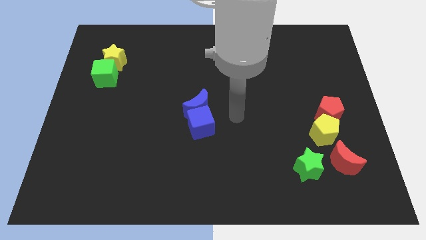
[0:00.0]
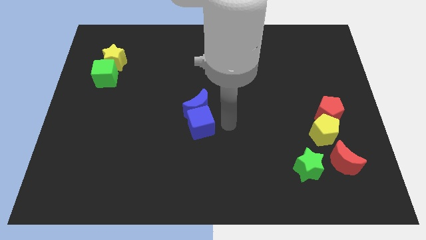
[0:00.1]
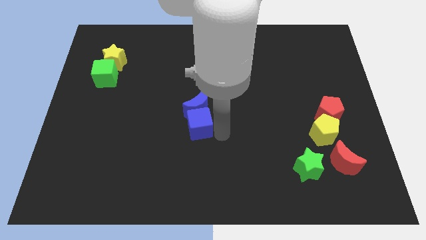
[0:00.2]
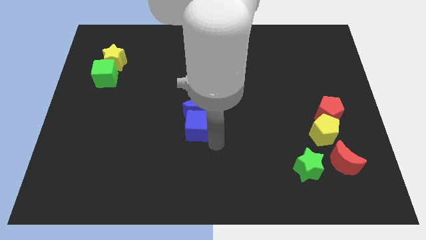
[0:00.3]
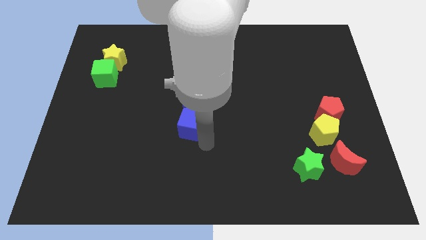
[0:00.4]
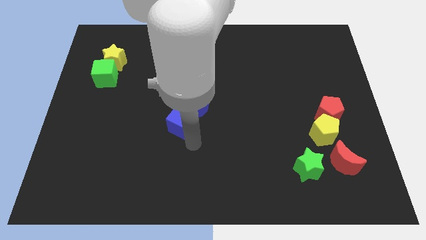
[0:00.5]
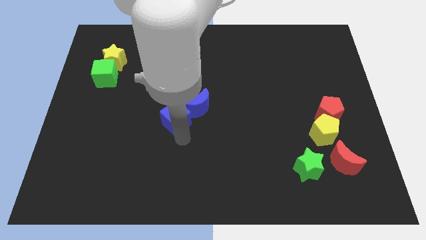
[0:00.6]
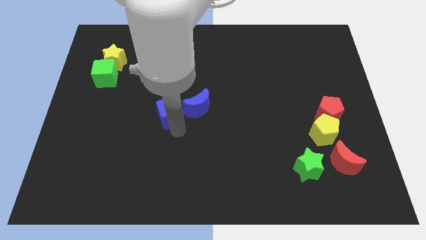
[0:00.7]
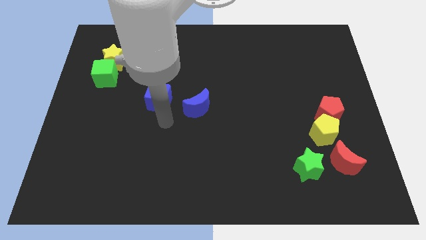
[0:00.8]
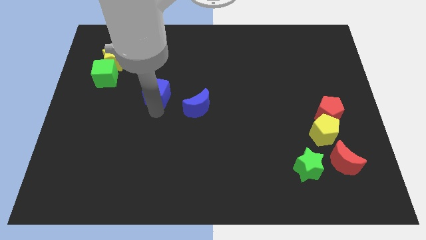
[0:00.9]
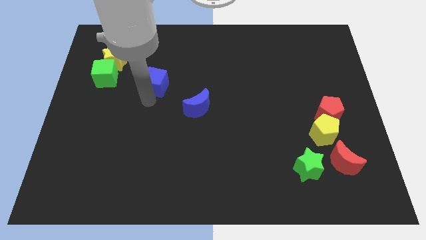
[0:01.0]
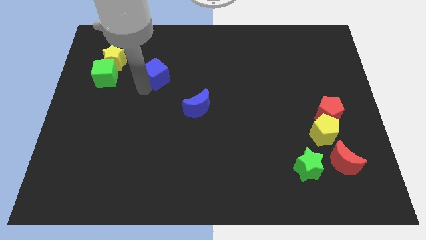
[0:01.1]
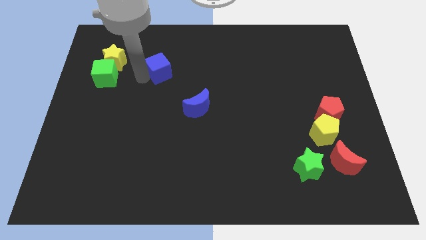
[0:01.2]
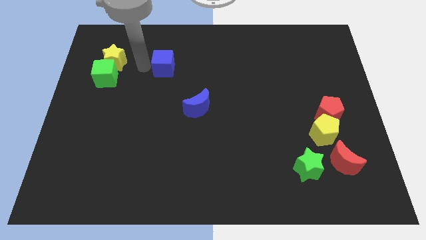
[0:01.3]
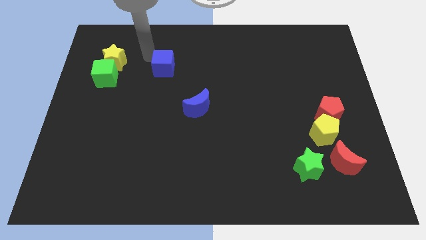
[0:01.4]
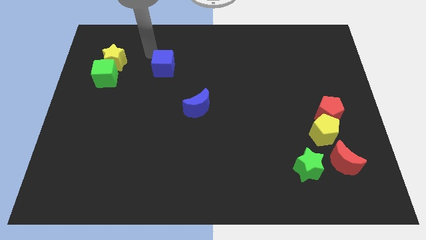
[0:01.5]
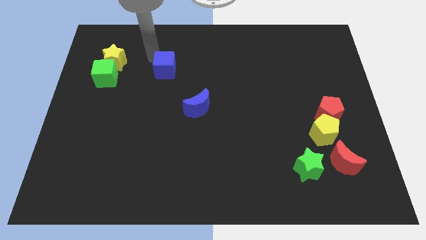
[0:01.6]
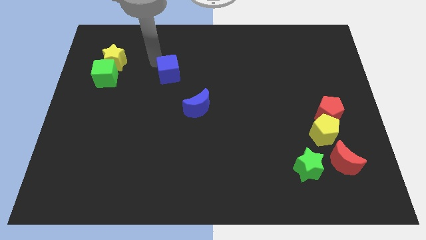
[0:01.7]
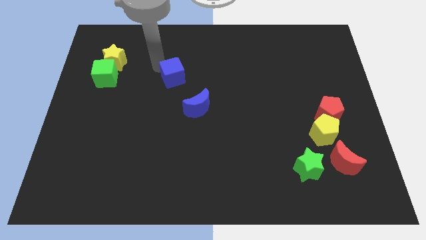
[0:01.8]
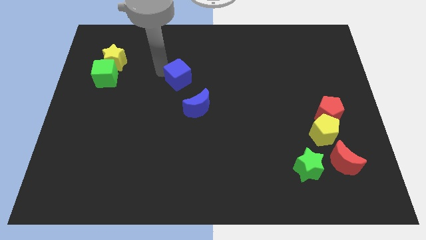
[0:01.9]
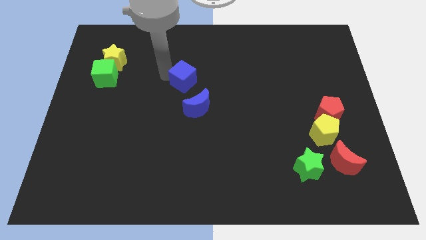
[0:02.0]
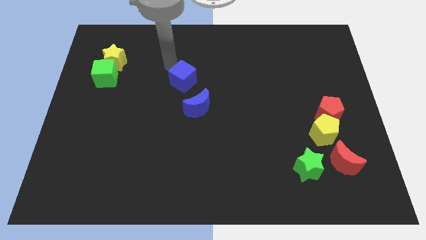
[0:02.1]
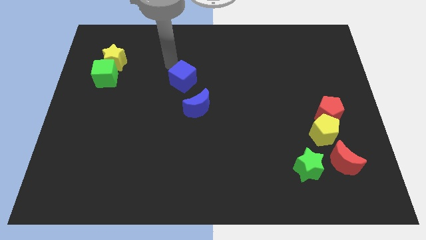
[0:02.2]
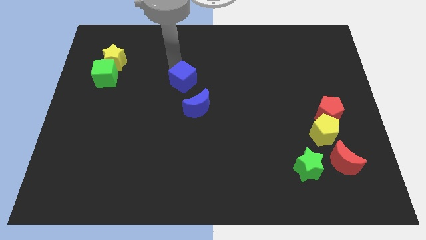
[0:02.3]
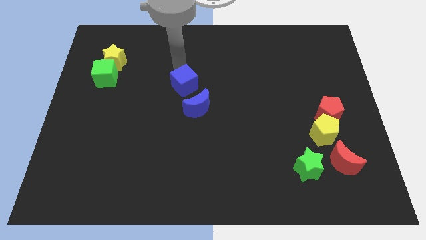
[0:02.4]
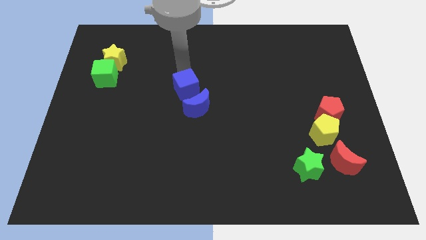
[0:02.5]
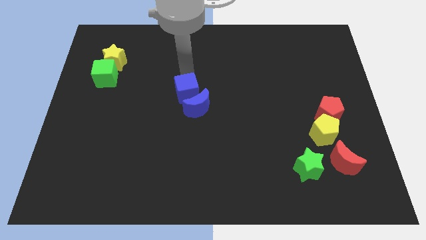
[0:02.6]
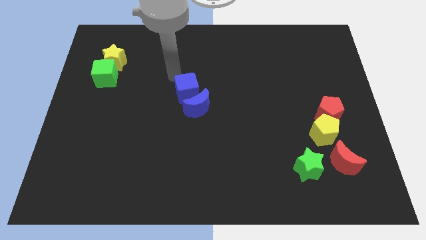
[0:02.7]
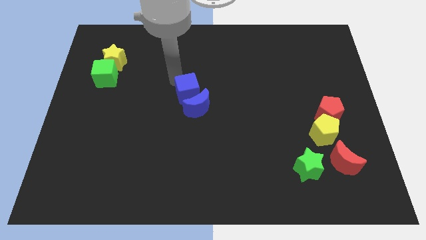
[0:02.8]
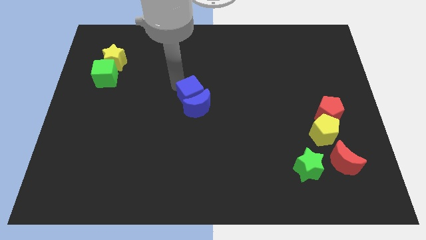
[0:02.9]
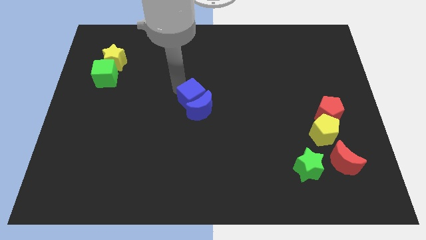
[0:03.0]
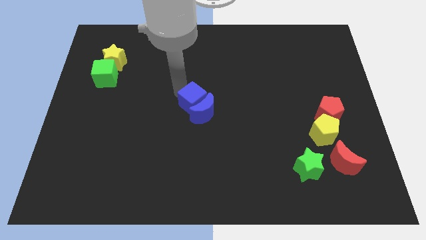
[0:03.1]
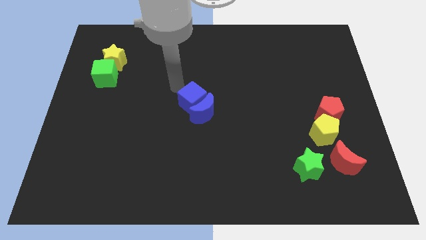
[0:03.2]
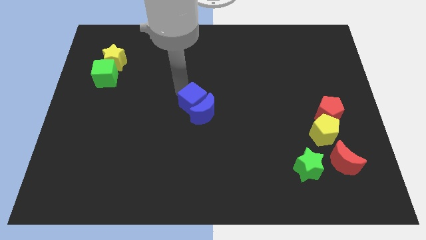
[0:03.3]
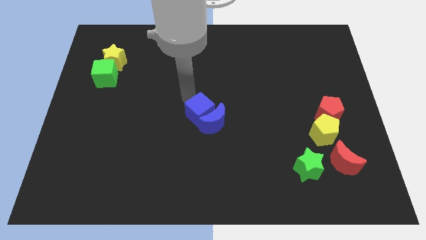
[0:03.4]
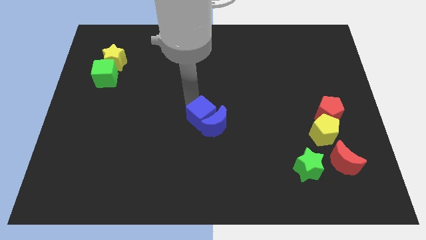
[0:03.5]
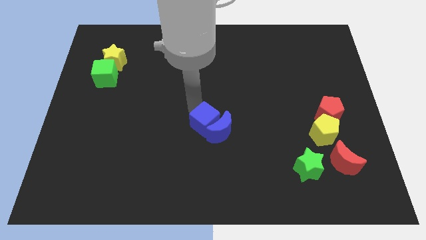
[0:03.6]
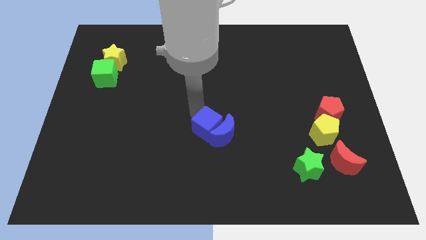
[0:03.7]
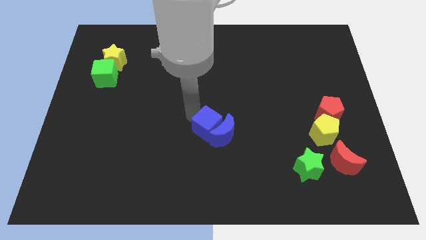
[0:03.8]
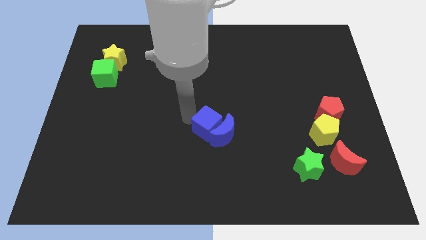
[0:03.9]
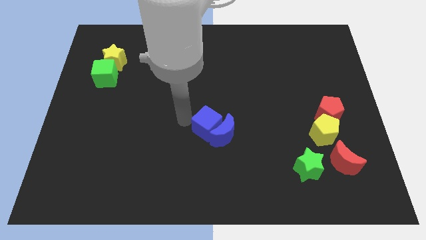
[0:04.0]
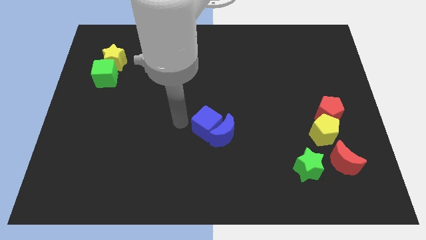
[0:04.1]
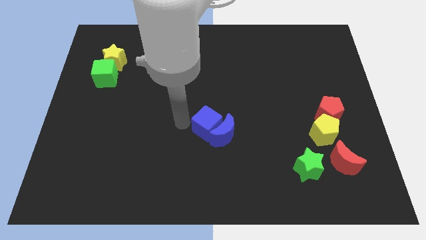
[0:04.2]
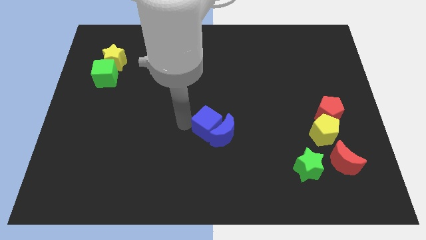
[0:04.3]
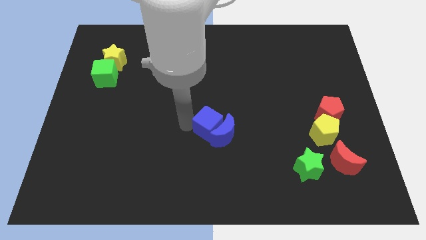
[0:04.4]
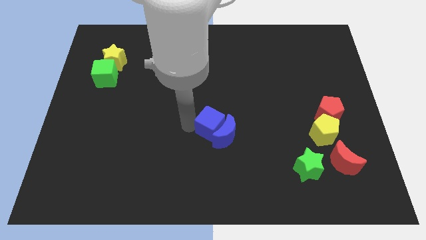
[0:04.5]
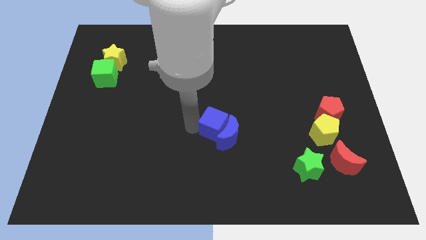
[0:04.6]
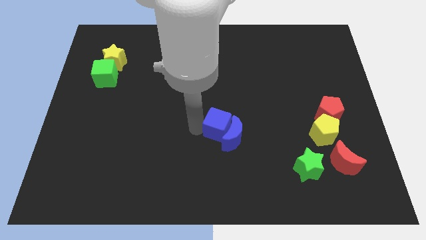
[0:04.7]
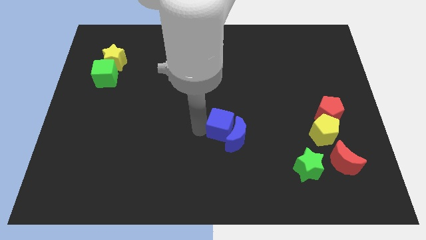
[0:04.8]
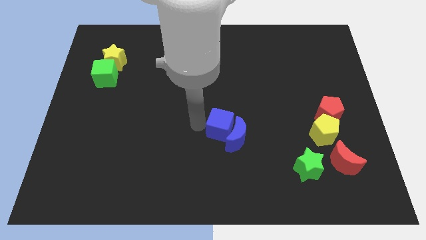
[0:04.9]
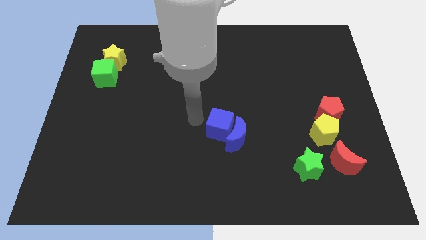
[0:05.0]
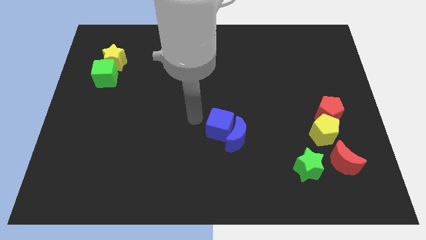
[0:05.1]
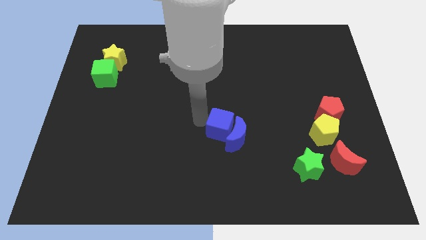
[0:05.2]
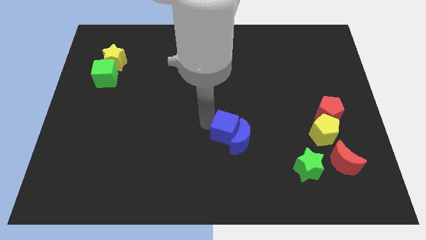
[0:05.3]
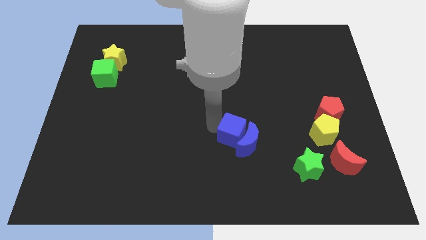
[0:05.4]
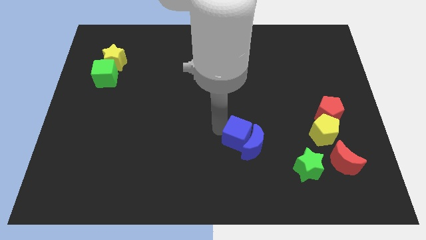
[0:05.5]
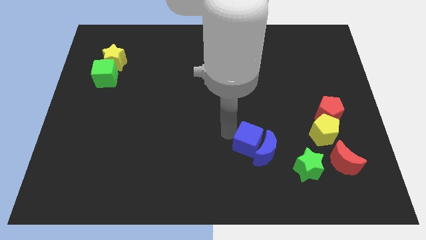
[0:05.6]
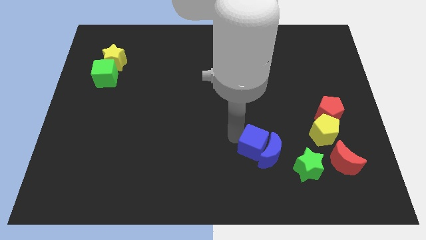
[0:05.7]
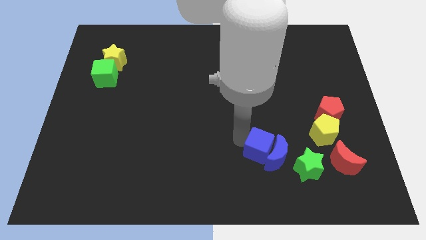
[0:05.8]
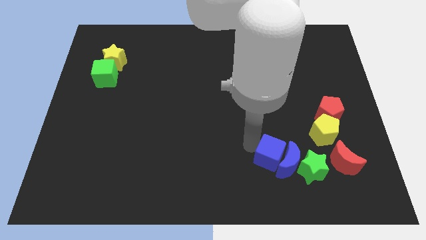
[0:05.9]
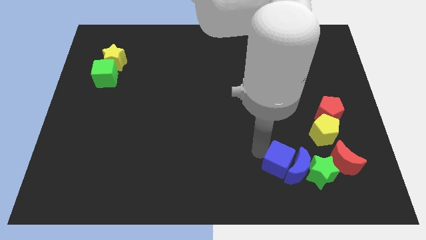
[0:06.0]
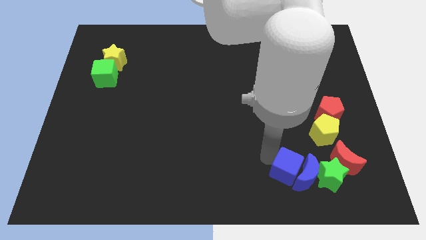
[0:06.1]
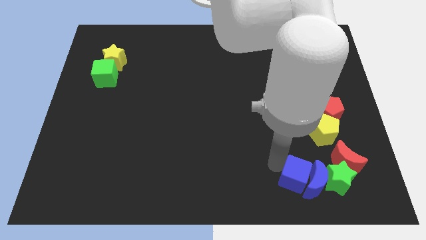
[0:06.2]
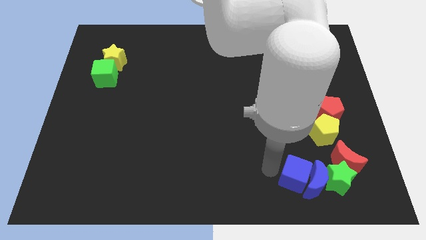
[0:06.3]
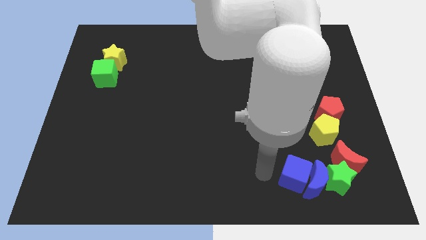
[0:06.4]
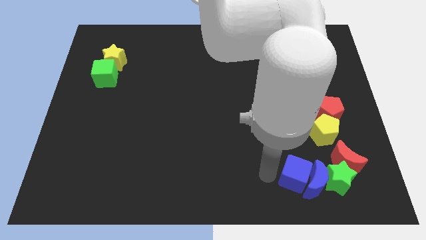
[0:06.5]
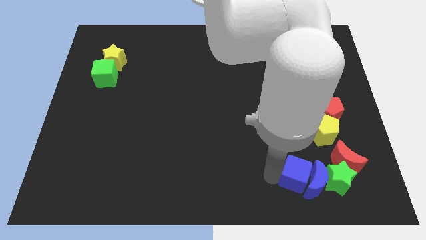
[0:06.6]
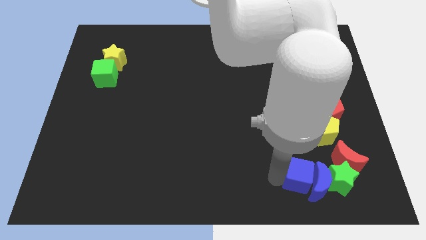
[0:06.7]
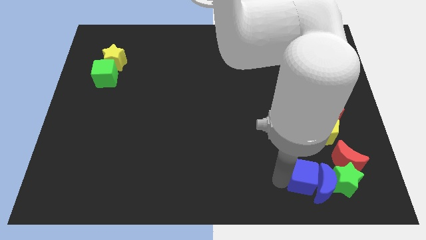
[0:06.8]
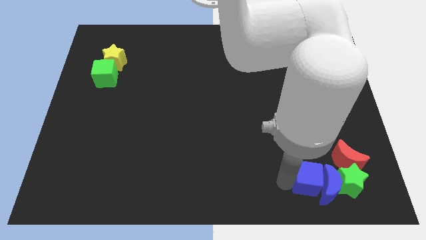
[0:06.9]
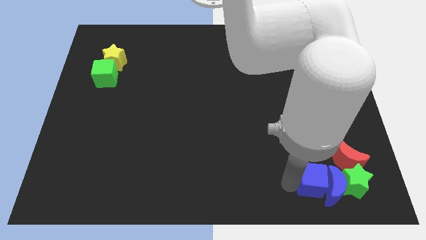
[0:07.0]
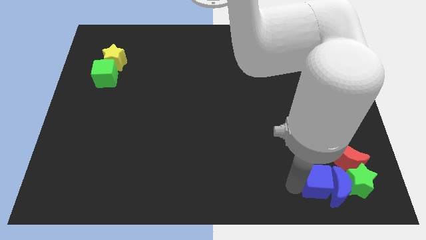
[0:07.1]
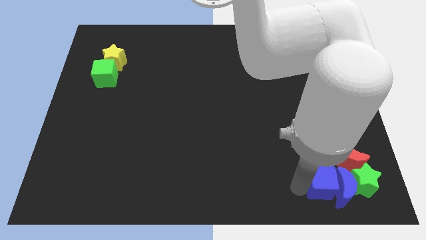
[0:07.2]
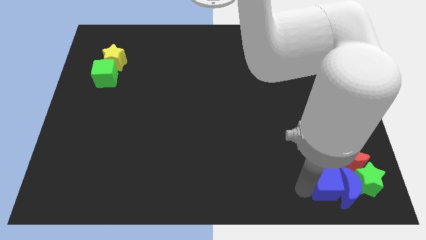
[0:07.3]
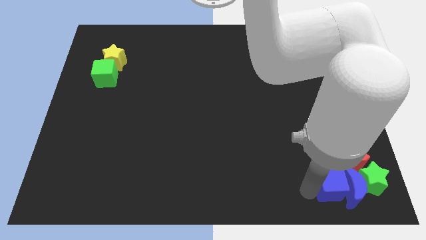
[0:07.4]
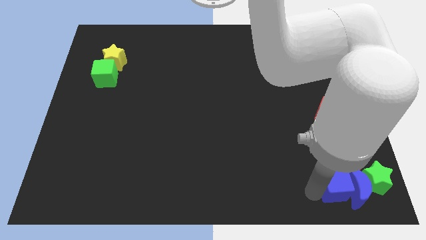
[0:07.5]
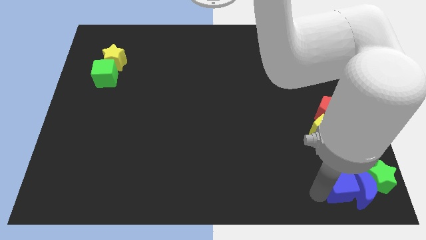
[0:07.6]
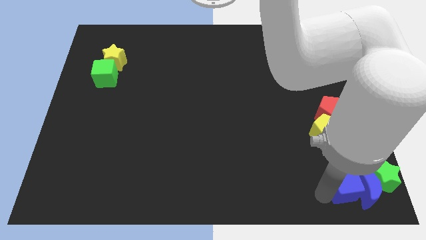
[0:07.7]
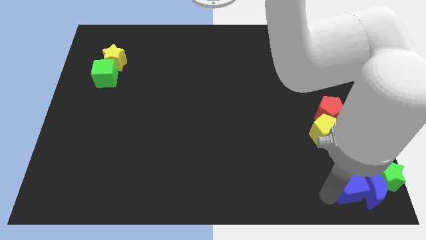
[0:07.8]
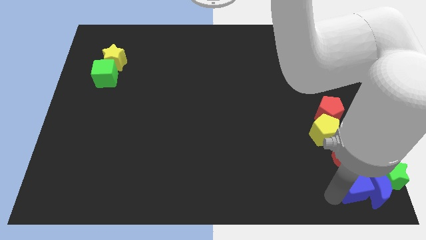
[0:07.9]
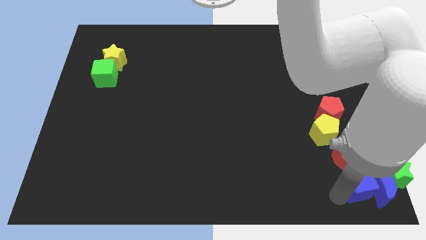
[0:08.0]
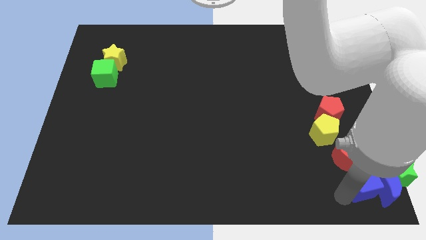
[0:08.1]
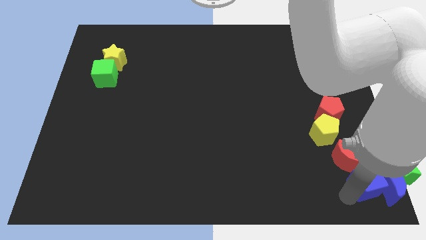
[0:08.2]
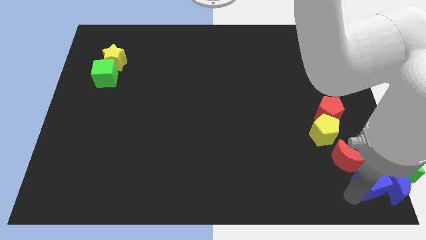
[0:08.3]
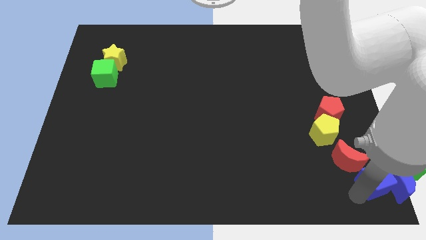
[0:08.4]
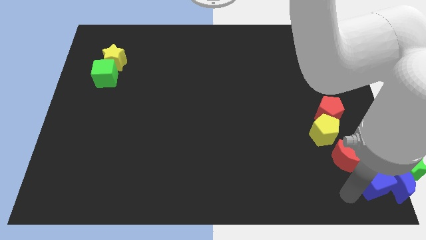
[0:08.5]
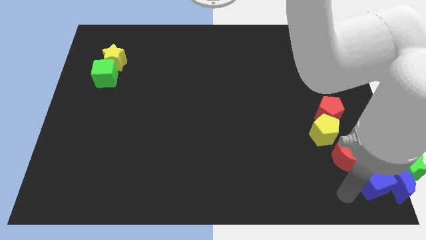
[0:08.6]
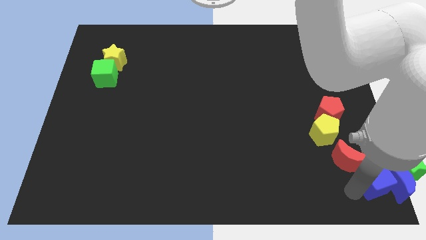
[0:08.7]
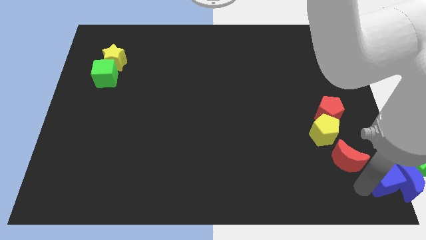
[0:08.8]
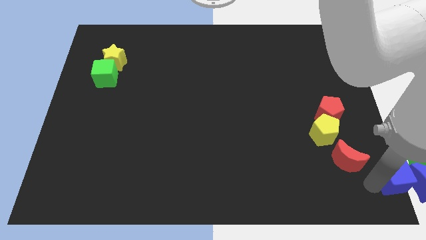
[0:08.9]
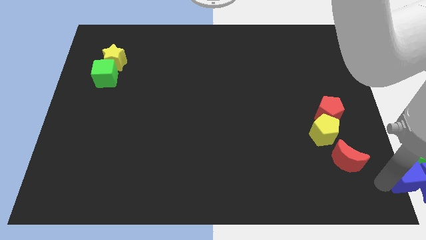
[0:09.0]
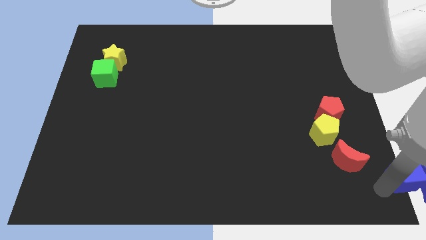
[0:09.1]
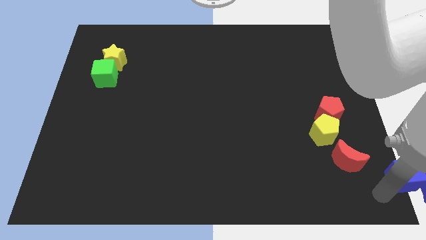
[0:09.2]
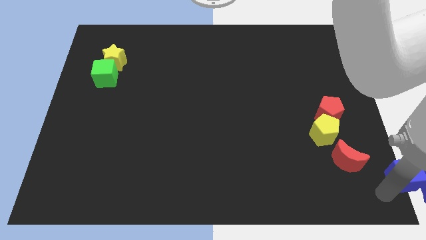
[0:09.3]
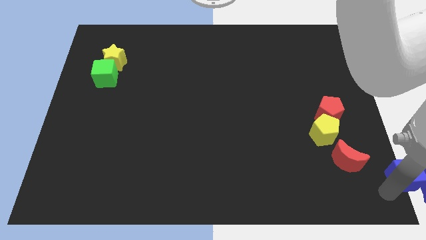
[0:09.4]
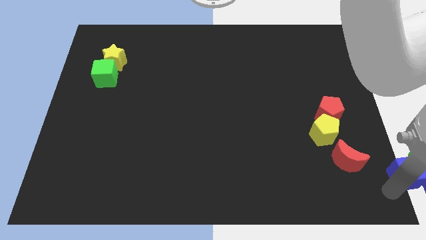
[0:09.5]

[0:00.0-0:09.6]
put the blue cube next to the green star
